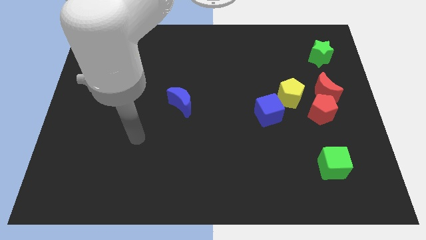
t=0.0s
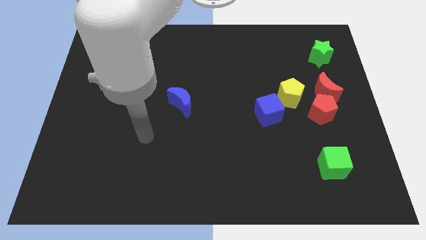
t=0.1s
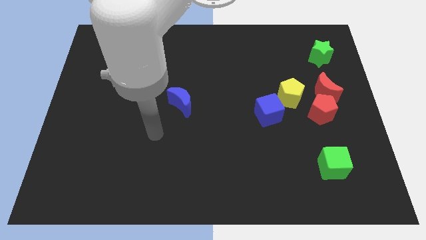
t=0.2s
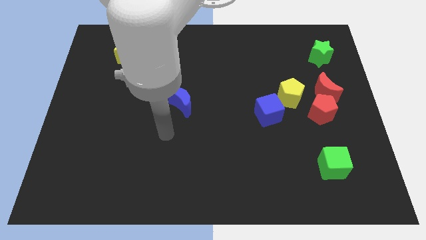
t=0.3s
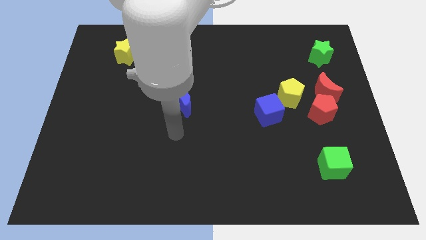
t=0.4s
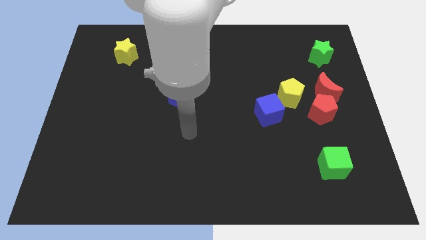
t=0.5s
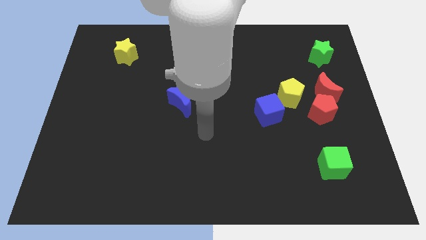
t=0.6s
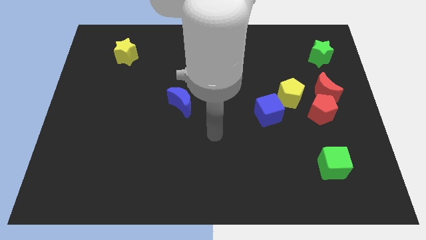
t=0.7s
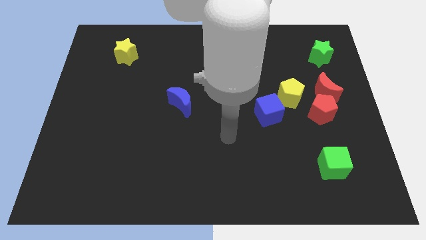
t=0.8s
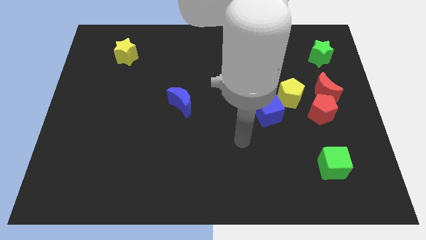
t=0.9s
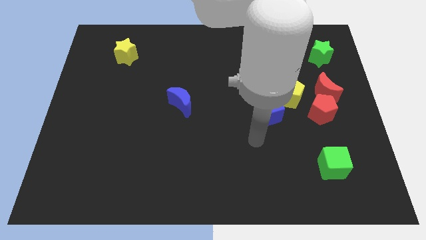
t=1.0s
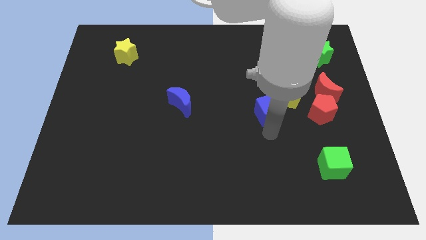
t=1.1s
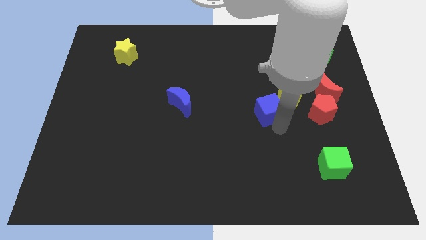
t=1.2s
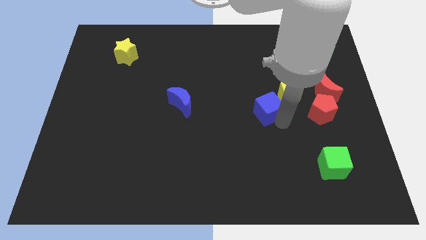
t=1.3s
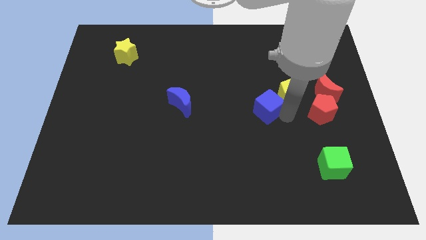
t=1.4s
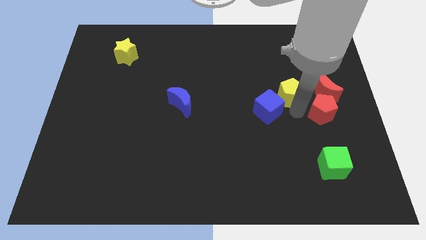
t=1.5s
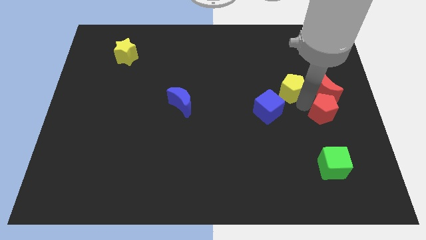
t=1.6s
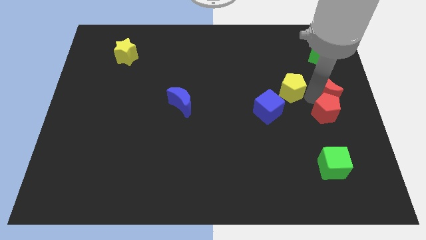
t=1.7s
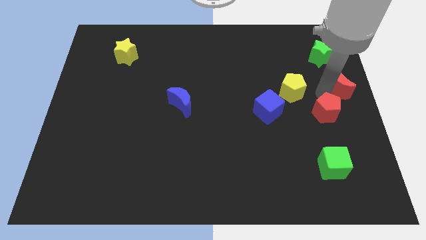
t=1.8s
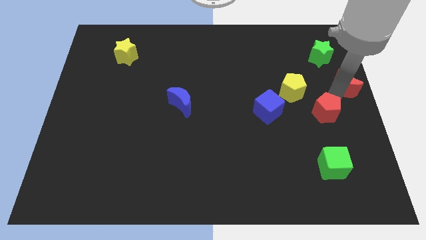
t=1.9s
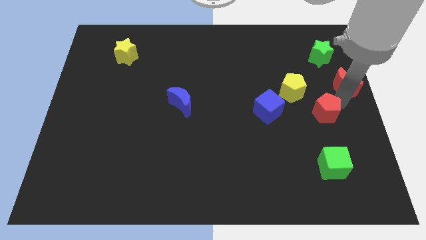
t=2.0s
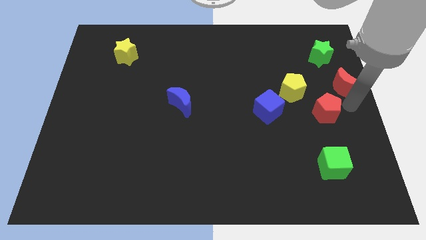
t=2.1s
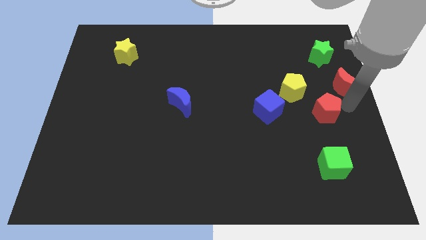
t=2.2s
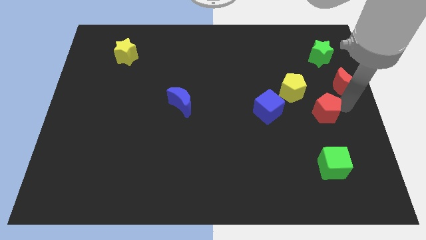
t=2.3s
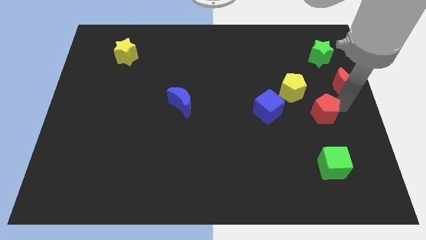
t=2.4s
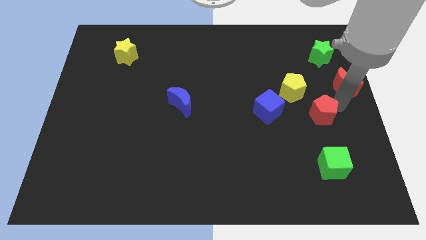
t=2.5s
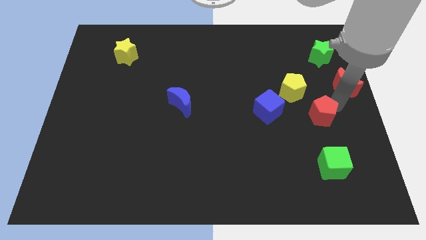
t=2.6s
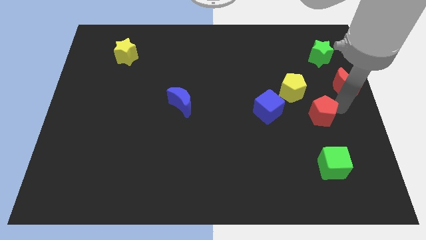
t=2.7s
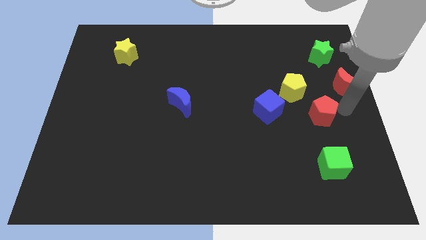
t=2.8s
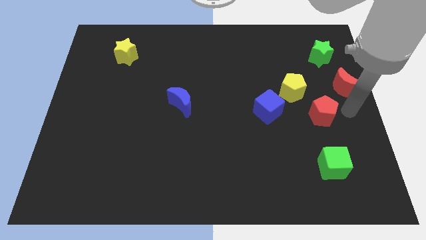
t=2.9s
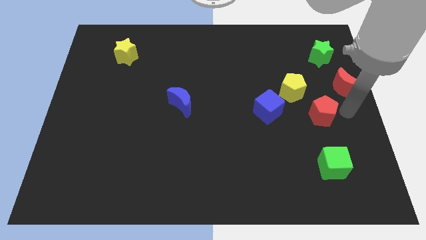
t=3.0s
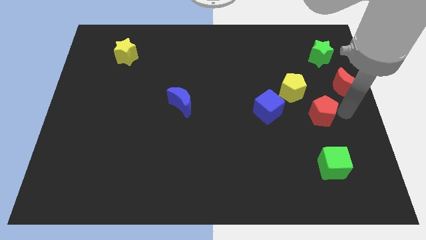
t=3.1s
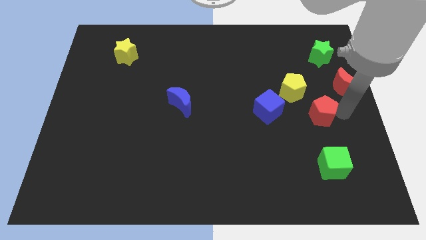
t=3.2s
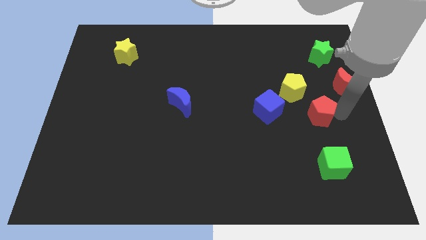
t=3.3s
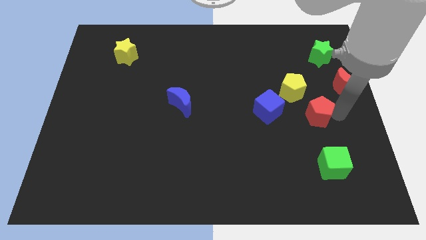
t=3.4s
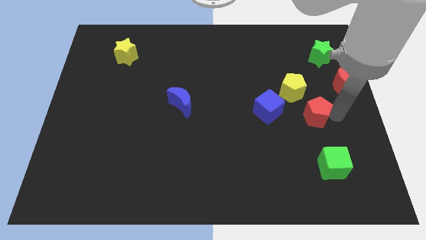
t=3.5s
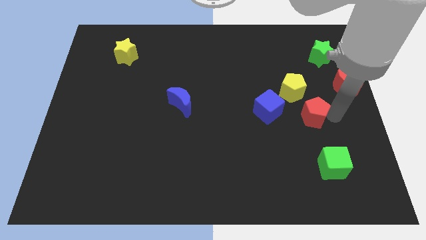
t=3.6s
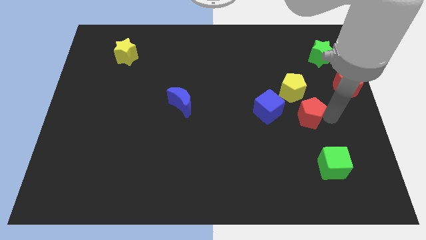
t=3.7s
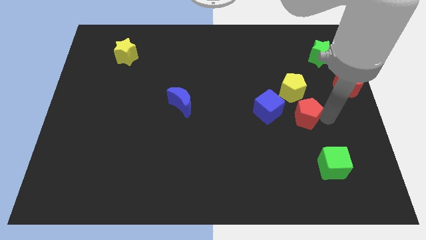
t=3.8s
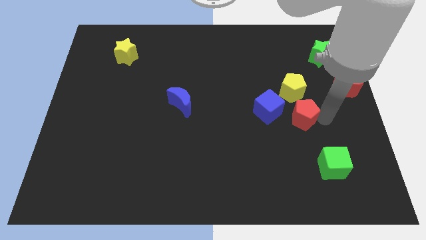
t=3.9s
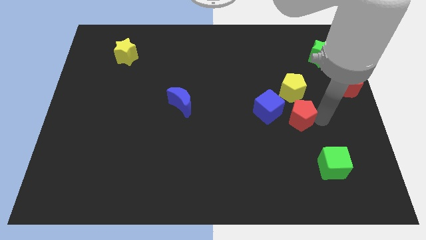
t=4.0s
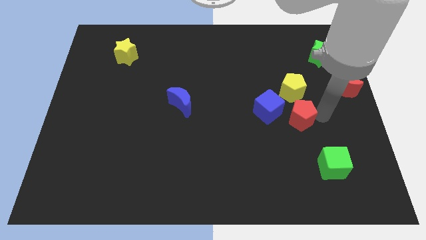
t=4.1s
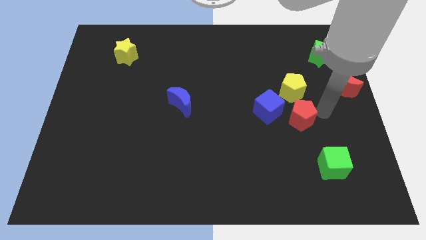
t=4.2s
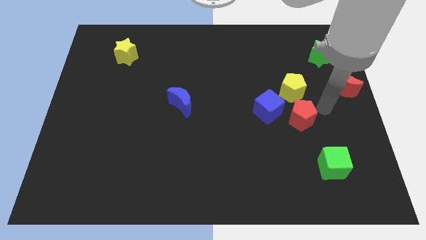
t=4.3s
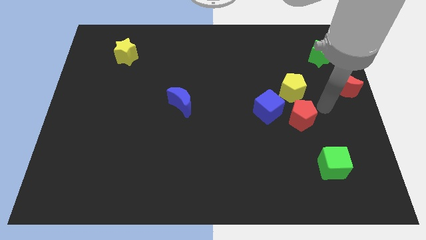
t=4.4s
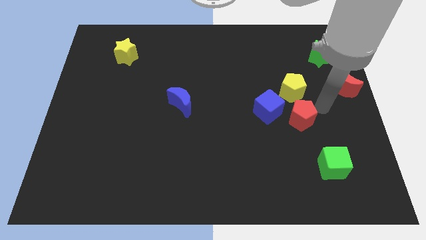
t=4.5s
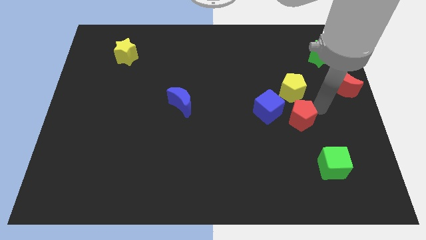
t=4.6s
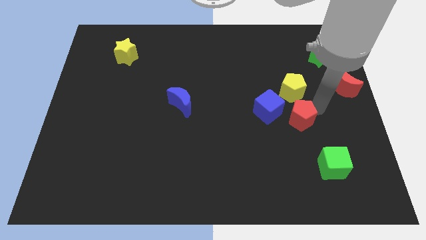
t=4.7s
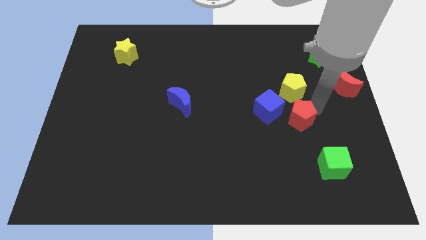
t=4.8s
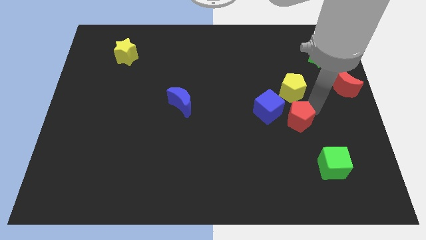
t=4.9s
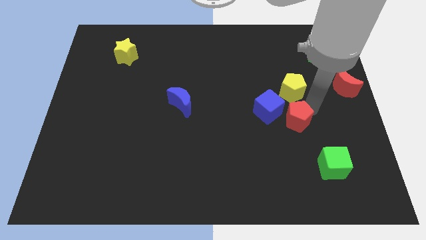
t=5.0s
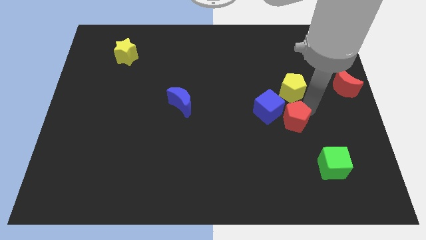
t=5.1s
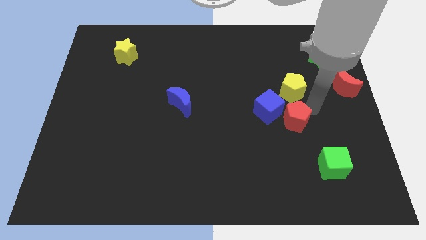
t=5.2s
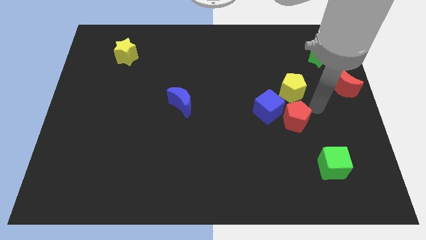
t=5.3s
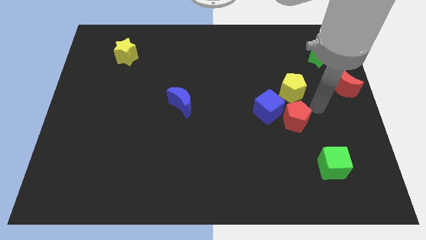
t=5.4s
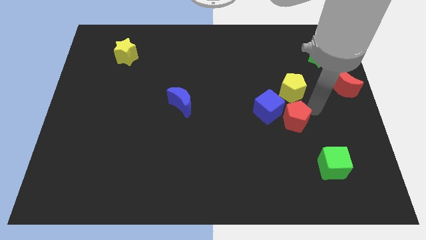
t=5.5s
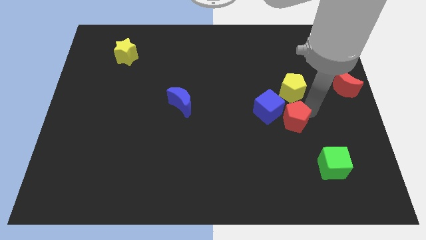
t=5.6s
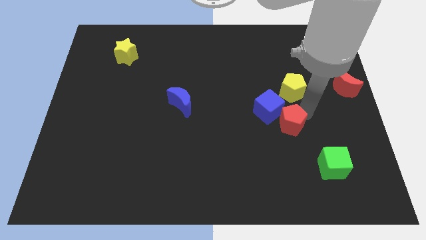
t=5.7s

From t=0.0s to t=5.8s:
slightly move the red pentagon to the left

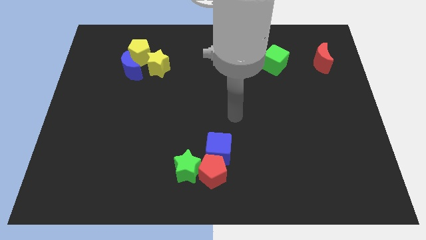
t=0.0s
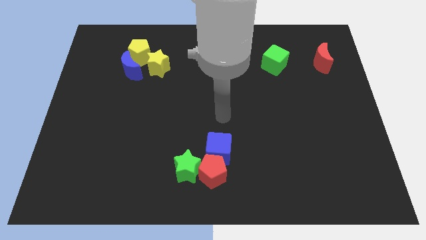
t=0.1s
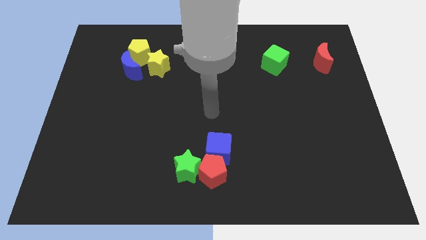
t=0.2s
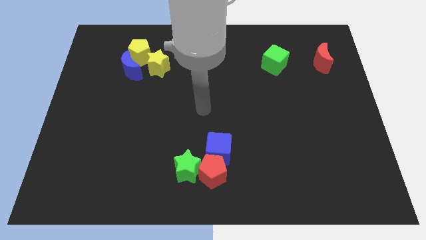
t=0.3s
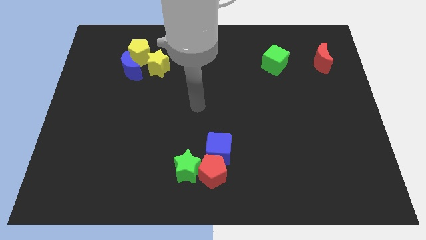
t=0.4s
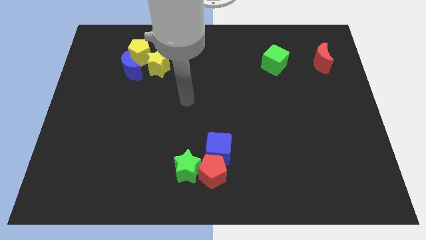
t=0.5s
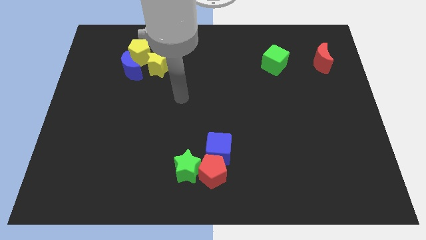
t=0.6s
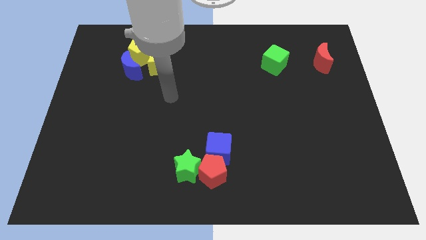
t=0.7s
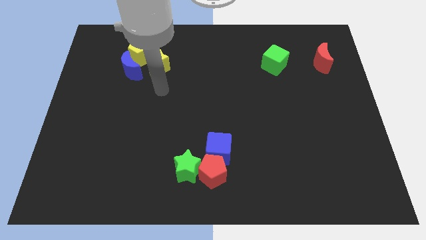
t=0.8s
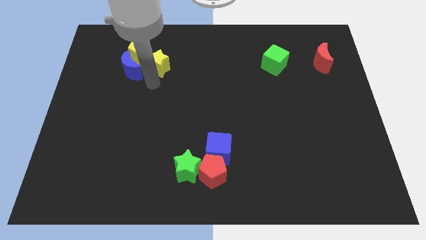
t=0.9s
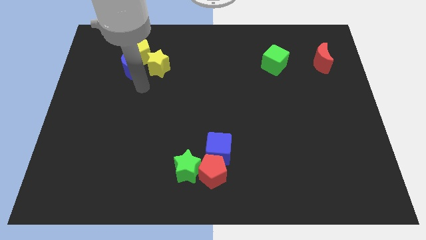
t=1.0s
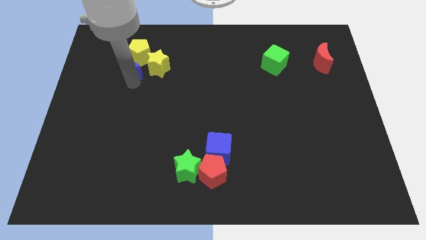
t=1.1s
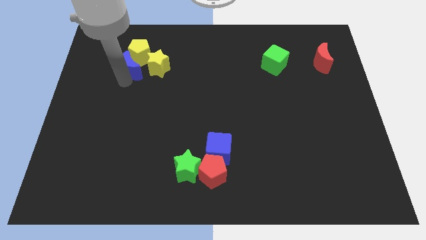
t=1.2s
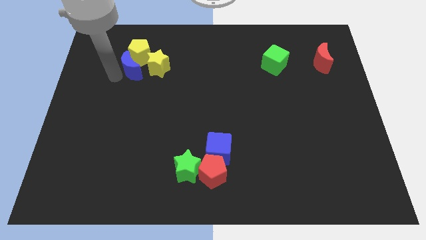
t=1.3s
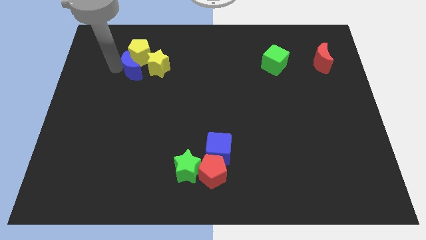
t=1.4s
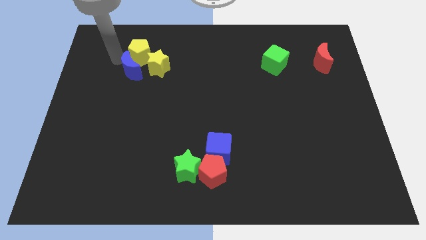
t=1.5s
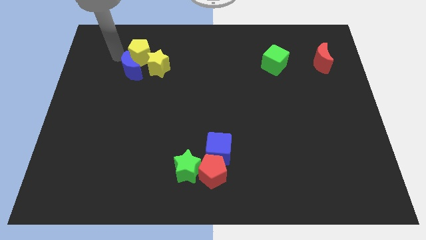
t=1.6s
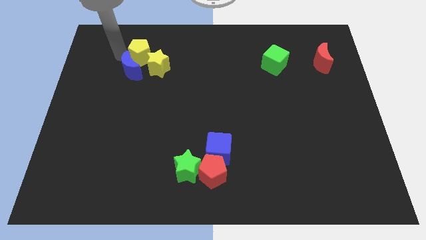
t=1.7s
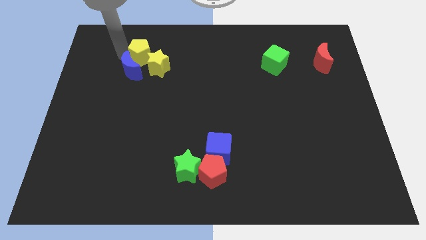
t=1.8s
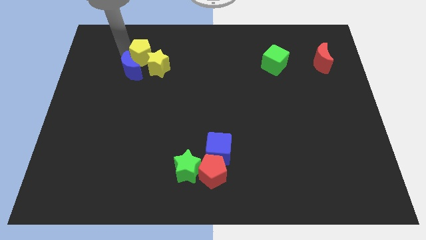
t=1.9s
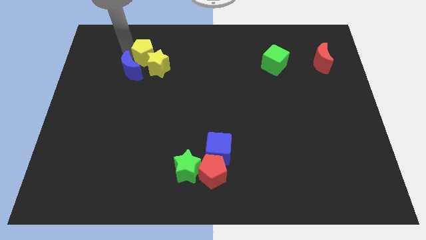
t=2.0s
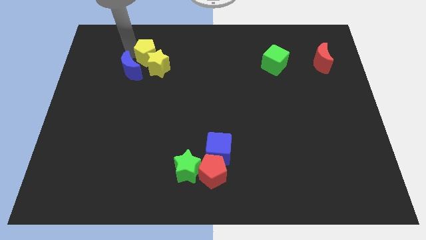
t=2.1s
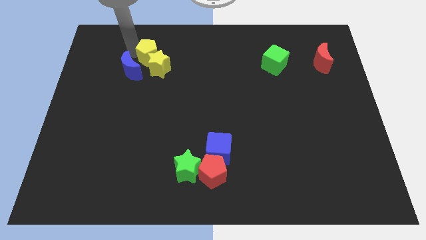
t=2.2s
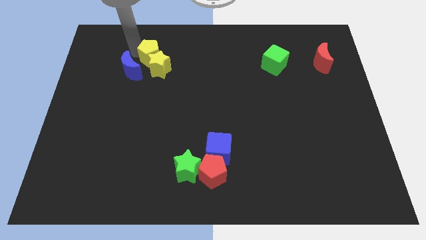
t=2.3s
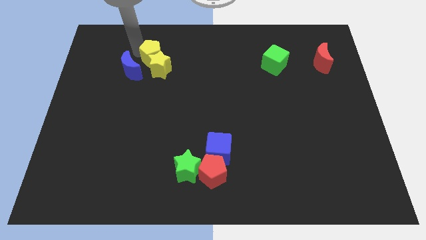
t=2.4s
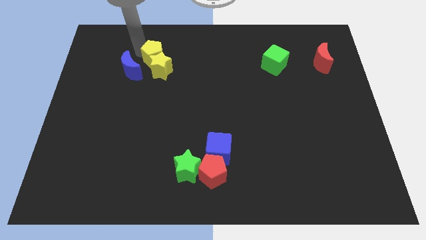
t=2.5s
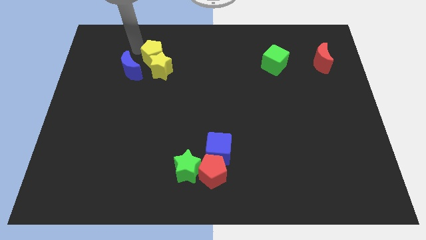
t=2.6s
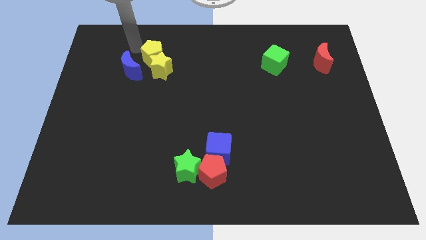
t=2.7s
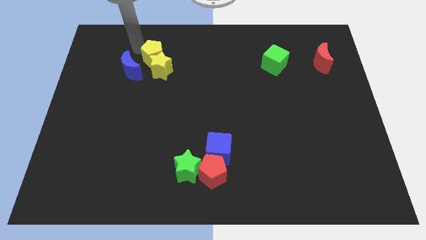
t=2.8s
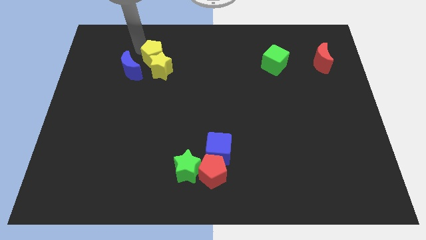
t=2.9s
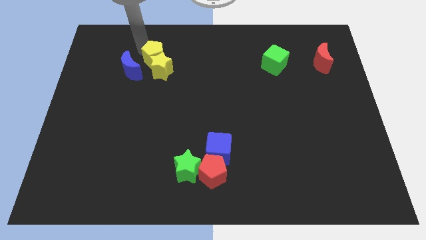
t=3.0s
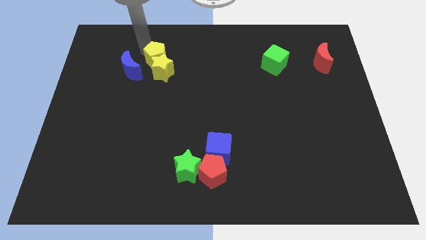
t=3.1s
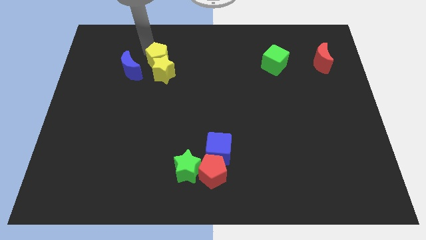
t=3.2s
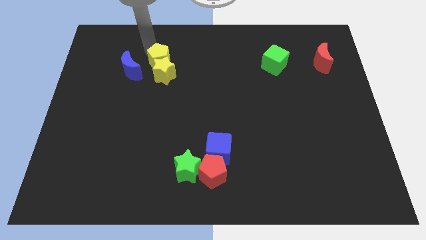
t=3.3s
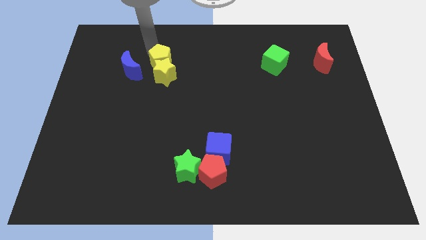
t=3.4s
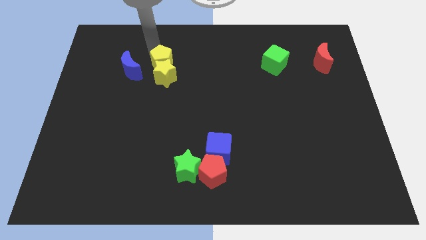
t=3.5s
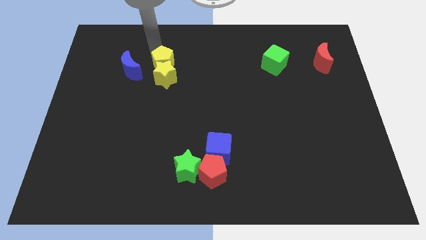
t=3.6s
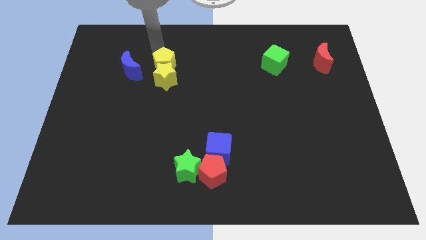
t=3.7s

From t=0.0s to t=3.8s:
move the yellow pentagon a bit down and to the right
